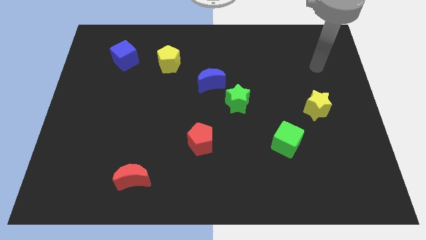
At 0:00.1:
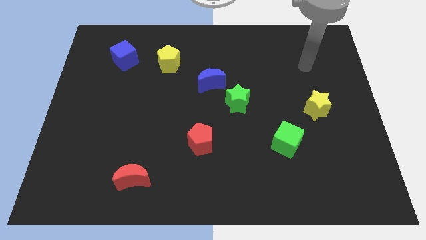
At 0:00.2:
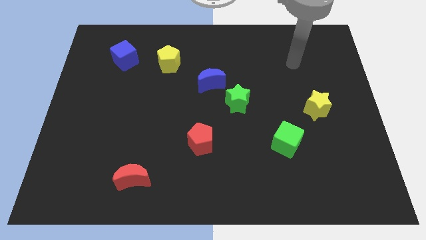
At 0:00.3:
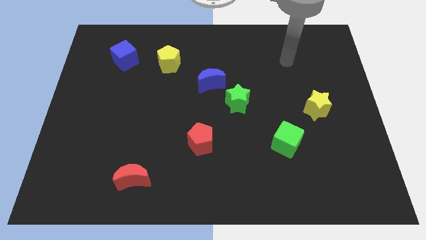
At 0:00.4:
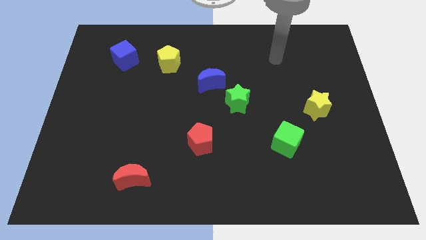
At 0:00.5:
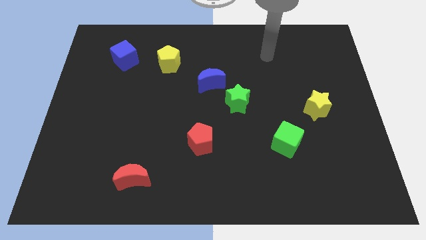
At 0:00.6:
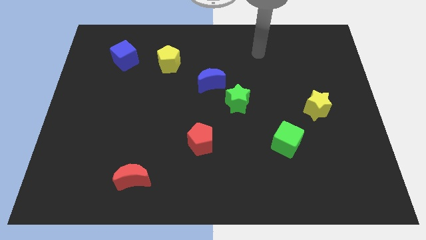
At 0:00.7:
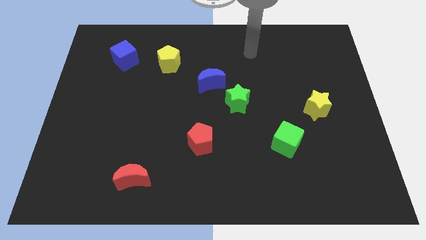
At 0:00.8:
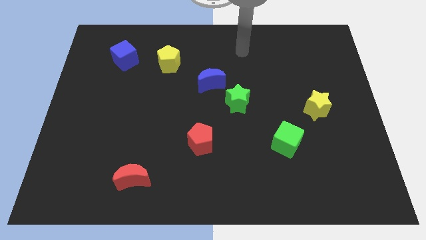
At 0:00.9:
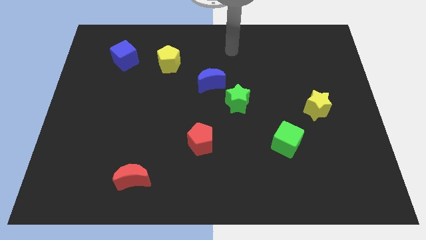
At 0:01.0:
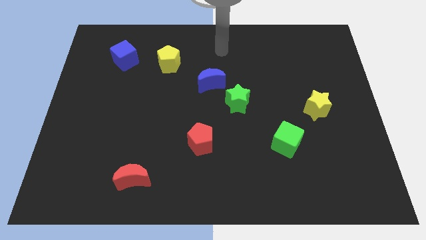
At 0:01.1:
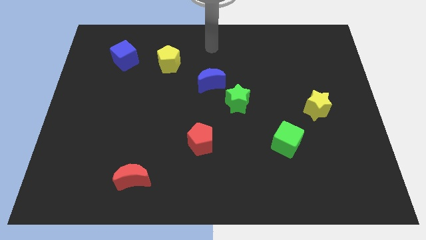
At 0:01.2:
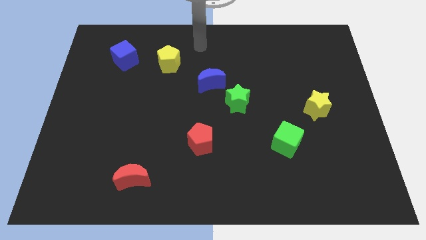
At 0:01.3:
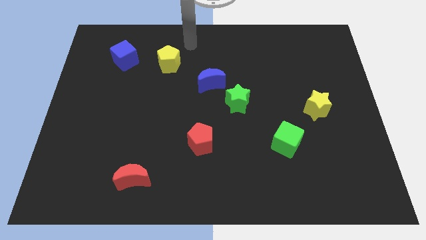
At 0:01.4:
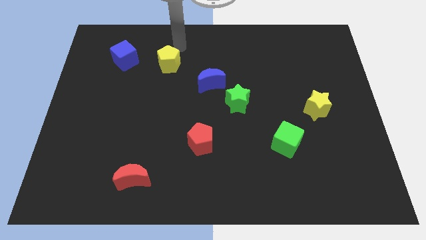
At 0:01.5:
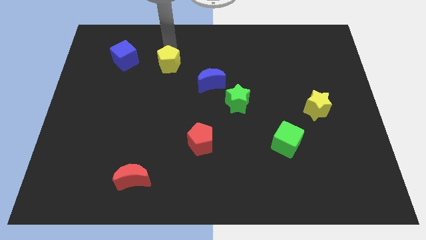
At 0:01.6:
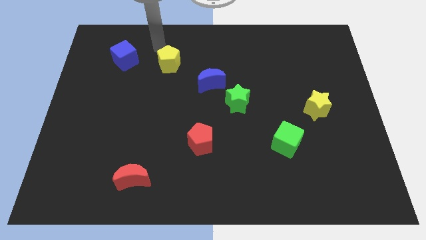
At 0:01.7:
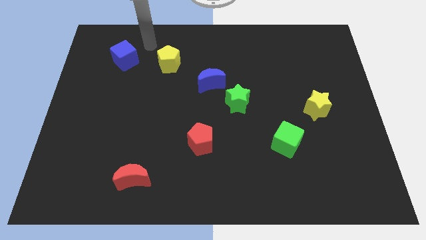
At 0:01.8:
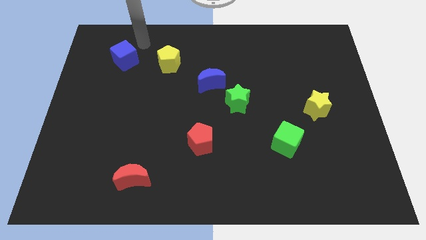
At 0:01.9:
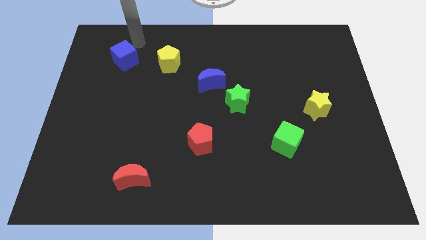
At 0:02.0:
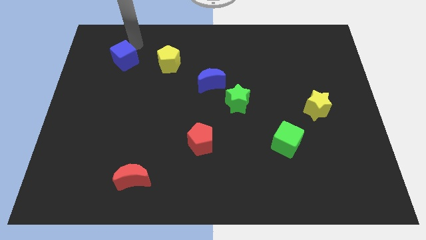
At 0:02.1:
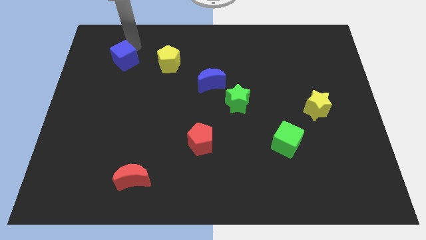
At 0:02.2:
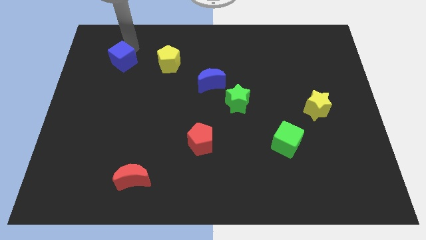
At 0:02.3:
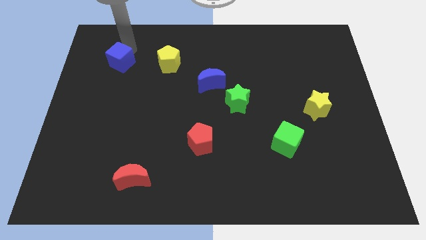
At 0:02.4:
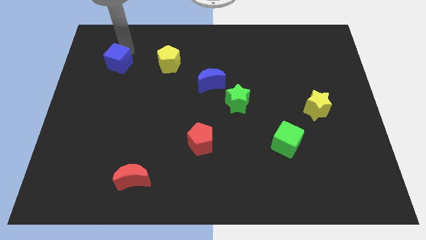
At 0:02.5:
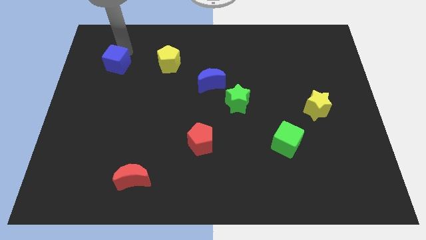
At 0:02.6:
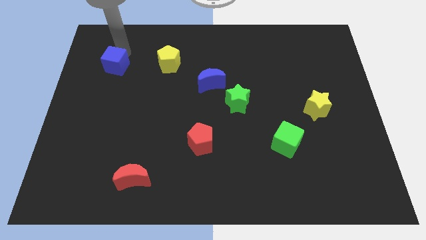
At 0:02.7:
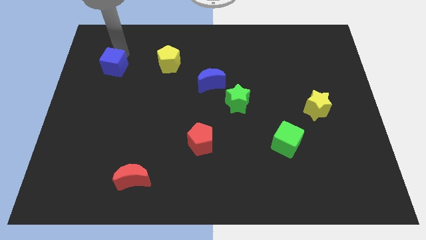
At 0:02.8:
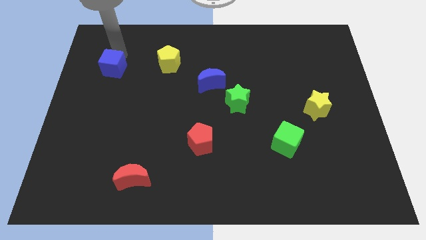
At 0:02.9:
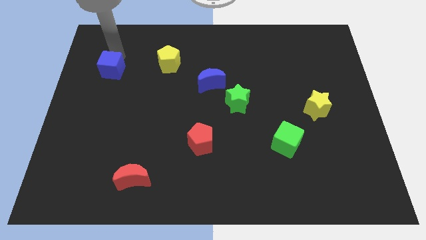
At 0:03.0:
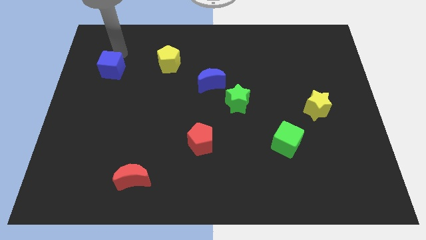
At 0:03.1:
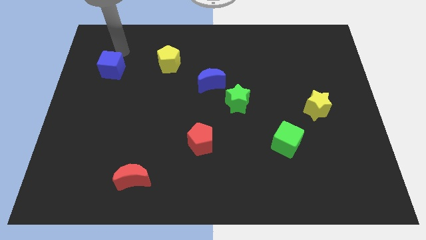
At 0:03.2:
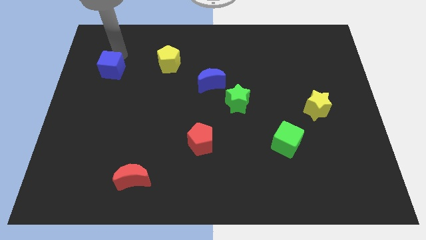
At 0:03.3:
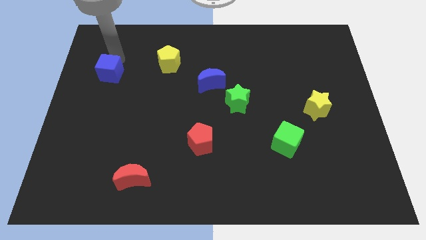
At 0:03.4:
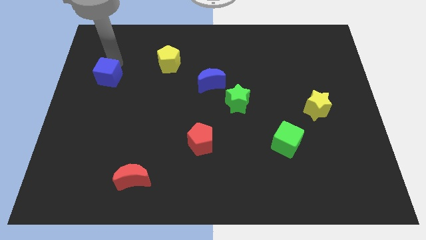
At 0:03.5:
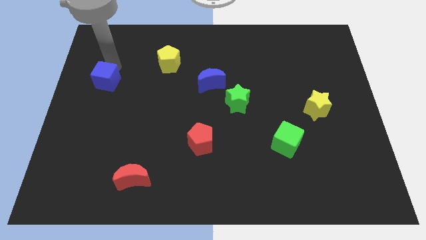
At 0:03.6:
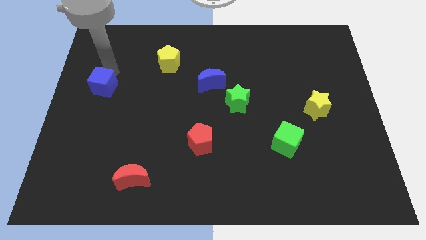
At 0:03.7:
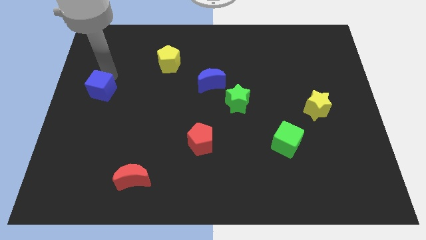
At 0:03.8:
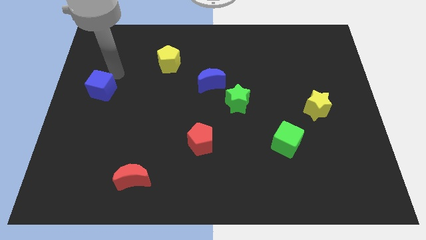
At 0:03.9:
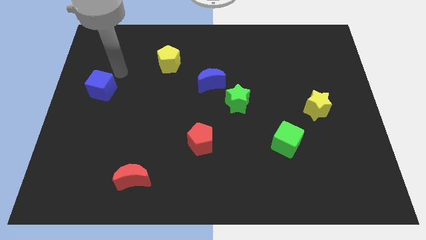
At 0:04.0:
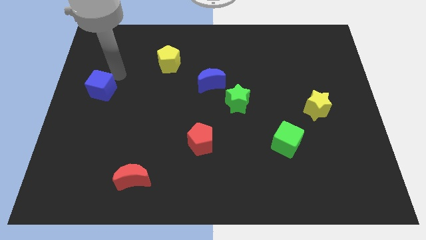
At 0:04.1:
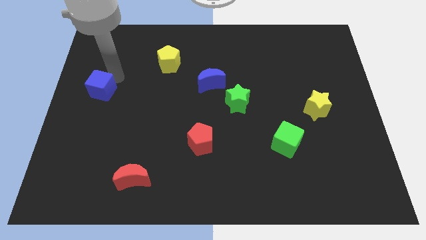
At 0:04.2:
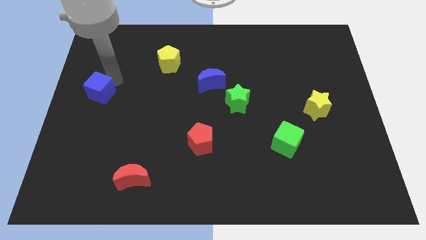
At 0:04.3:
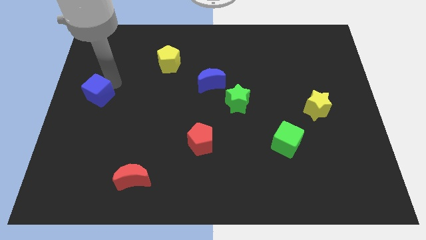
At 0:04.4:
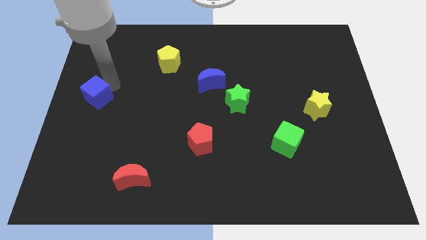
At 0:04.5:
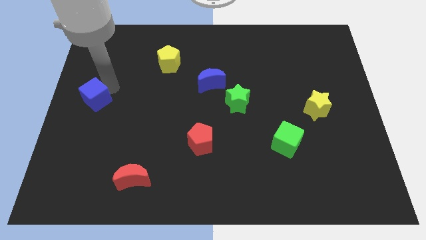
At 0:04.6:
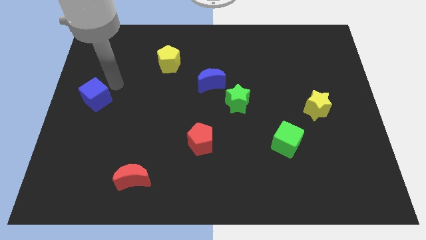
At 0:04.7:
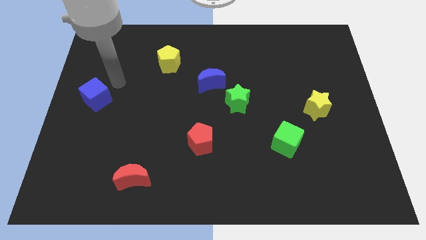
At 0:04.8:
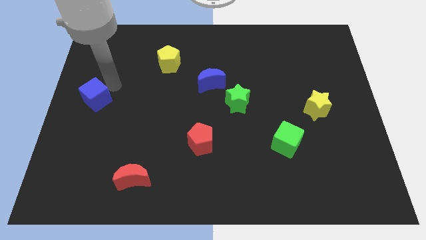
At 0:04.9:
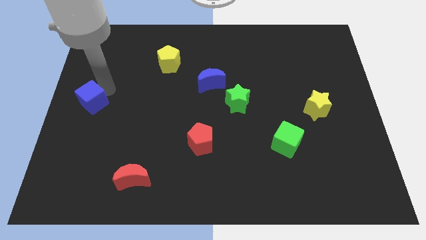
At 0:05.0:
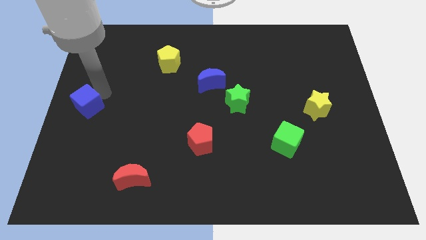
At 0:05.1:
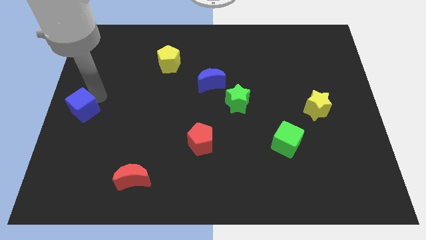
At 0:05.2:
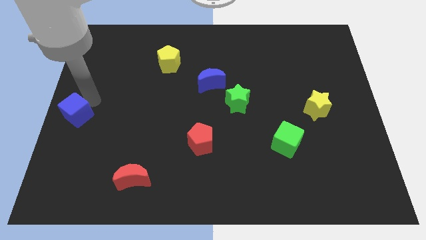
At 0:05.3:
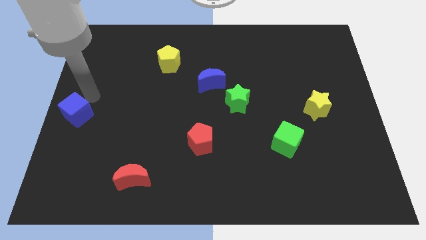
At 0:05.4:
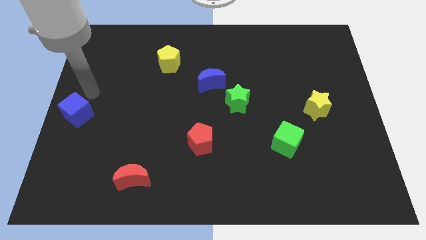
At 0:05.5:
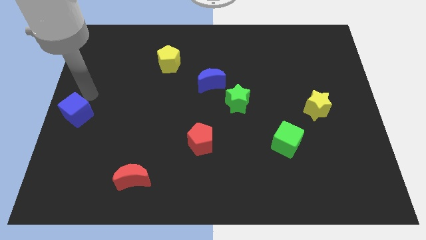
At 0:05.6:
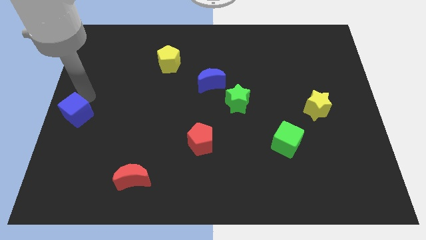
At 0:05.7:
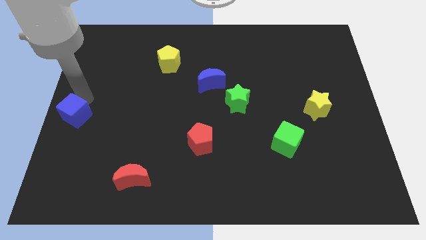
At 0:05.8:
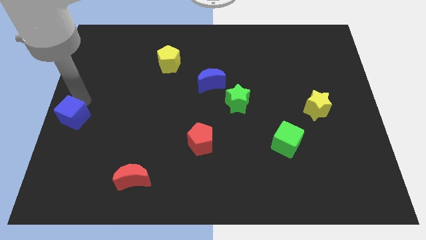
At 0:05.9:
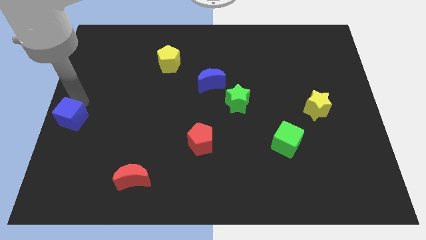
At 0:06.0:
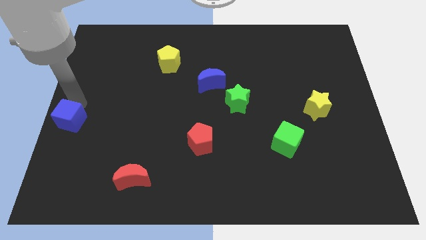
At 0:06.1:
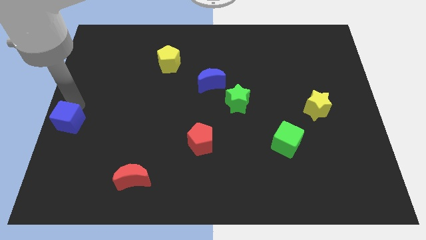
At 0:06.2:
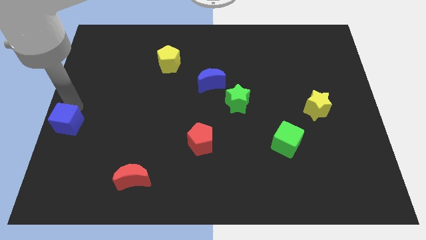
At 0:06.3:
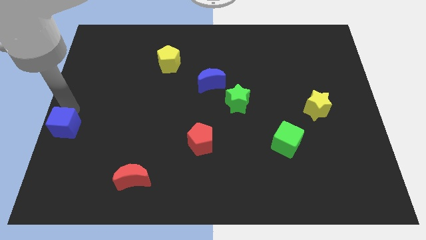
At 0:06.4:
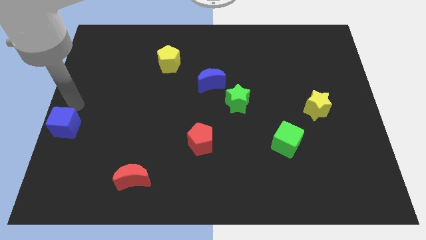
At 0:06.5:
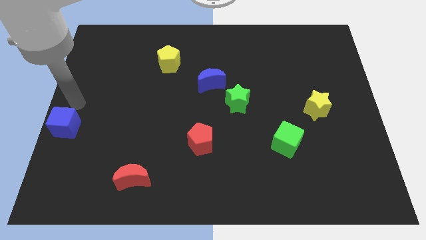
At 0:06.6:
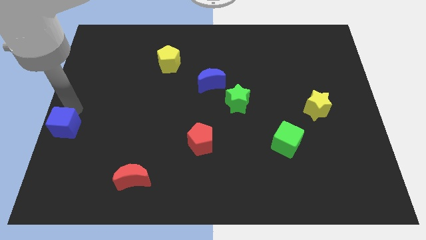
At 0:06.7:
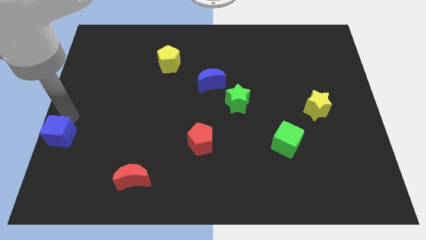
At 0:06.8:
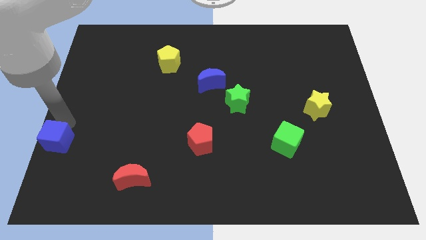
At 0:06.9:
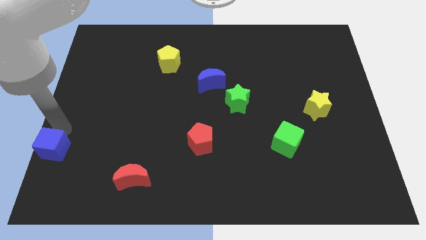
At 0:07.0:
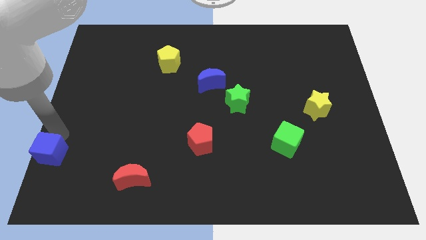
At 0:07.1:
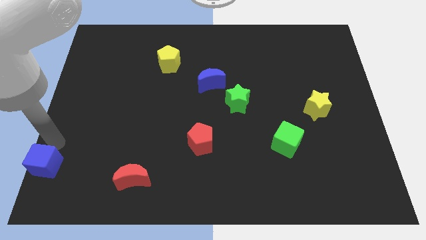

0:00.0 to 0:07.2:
put the blue cube to the bottom left of the board

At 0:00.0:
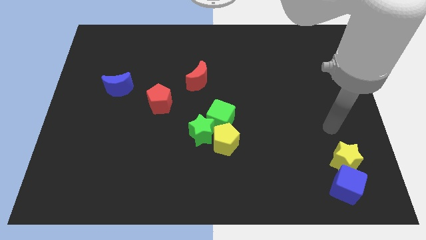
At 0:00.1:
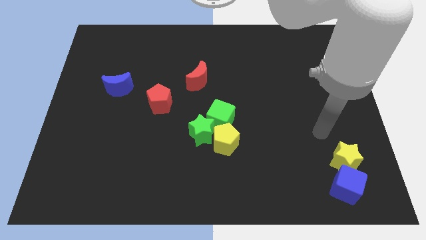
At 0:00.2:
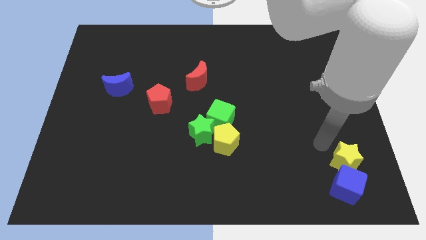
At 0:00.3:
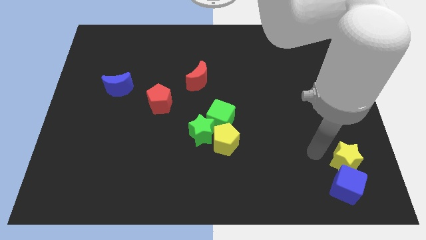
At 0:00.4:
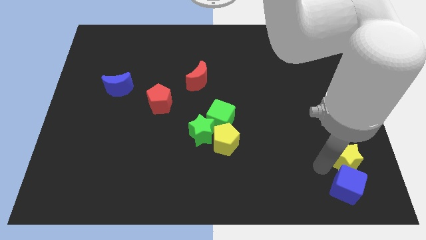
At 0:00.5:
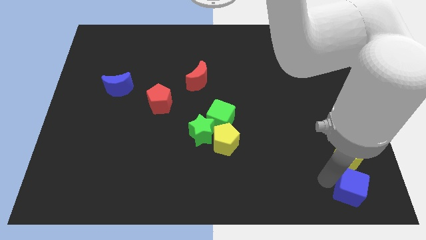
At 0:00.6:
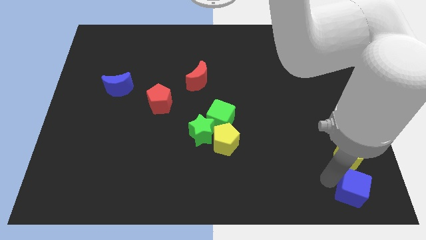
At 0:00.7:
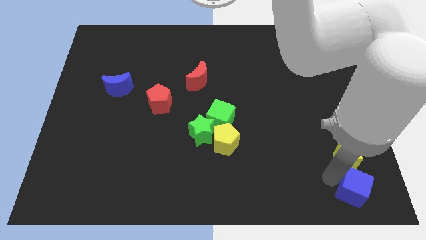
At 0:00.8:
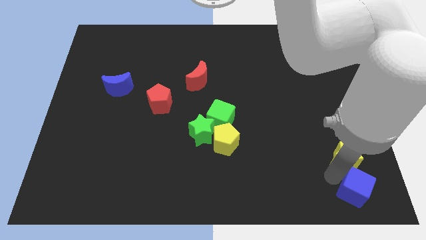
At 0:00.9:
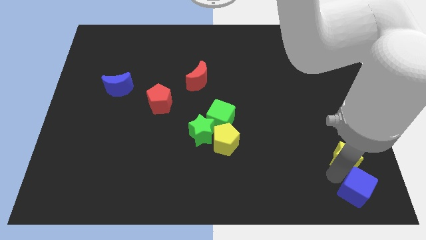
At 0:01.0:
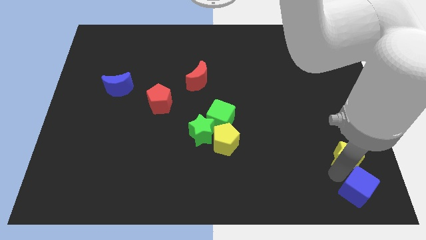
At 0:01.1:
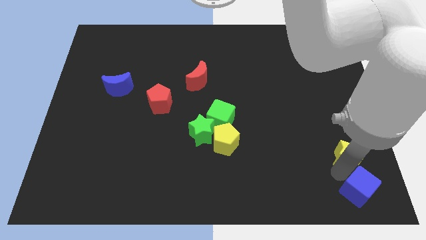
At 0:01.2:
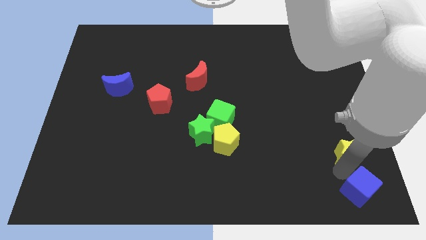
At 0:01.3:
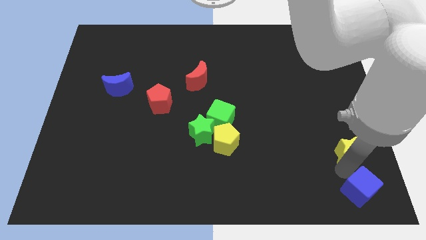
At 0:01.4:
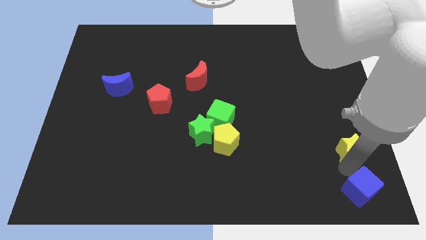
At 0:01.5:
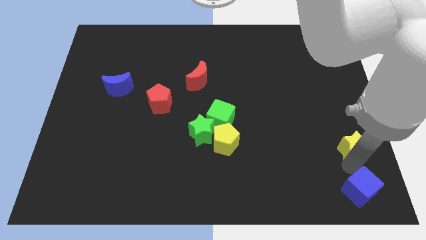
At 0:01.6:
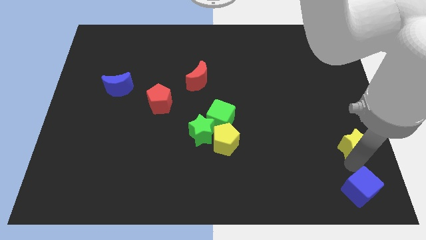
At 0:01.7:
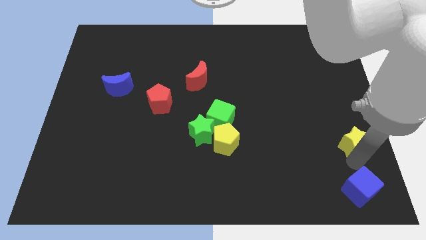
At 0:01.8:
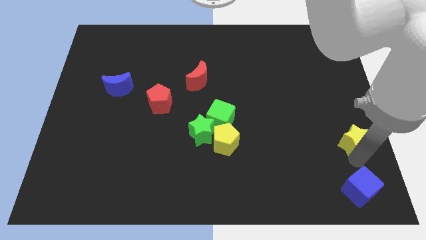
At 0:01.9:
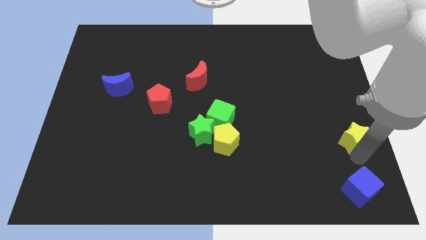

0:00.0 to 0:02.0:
move the yellow star to the right side
